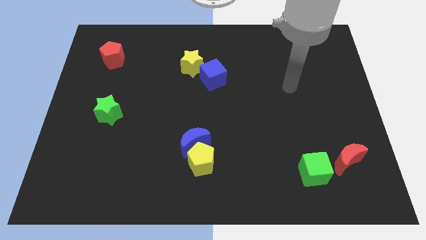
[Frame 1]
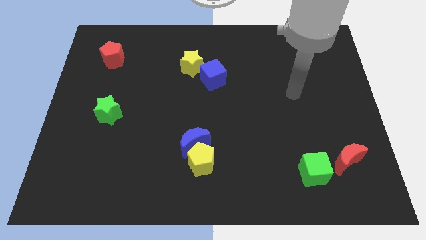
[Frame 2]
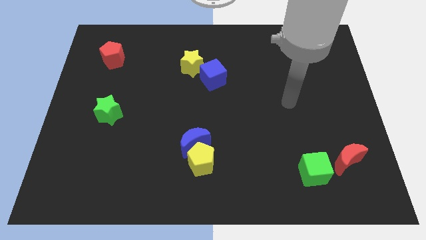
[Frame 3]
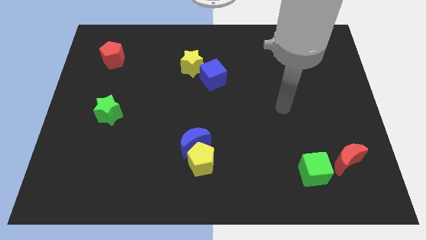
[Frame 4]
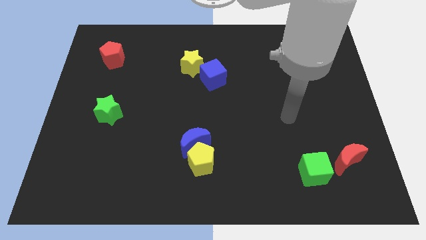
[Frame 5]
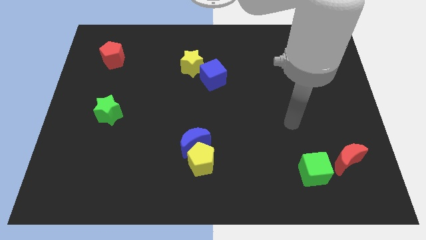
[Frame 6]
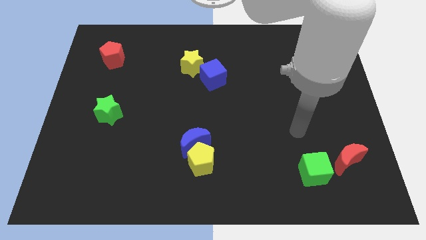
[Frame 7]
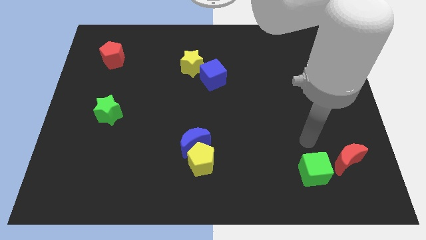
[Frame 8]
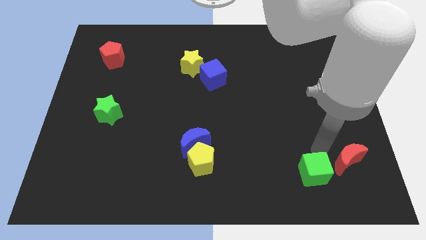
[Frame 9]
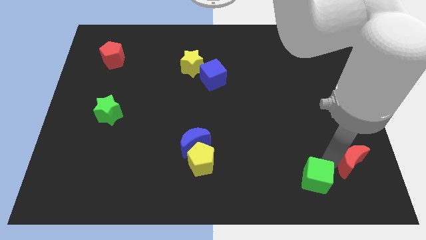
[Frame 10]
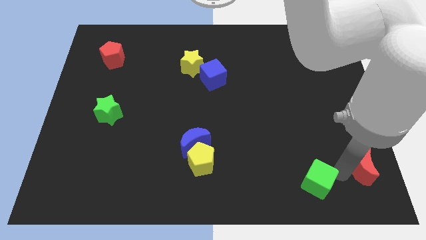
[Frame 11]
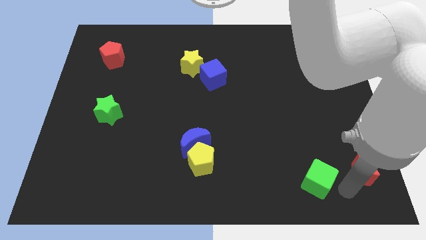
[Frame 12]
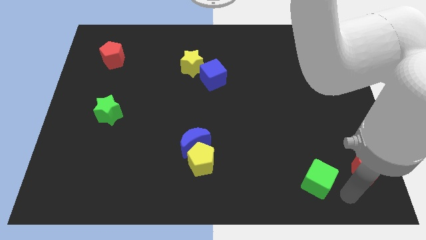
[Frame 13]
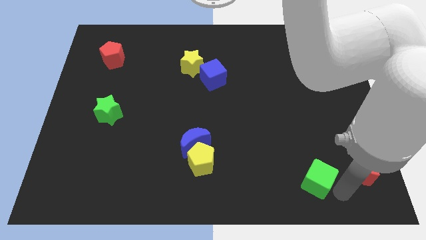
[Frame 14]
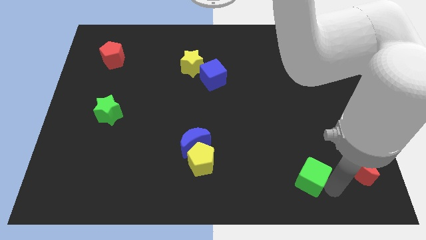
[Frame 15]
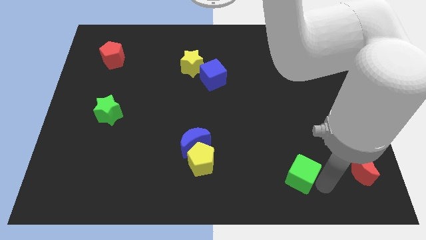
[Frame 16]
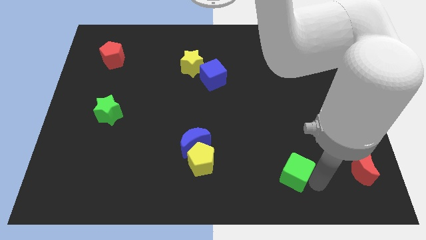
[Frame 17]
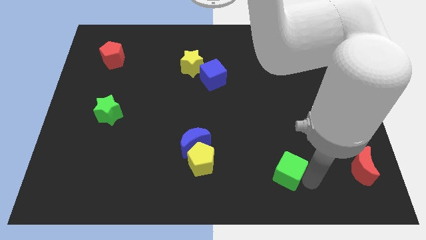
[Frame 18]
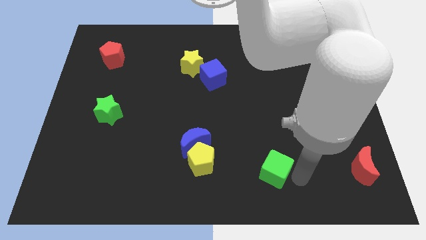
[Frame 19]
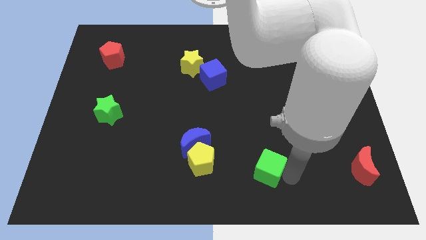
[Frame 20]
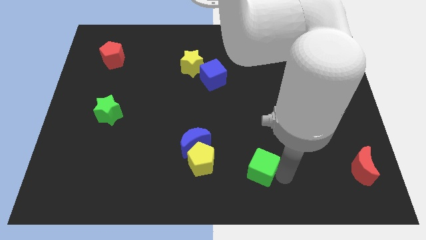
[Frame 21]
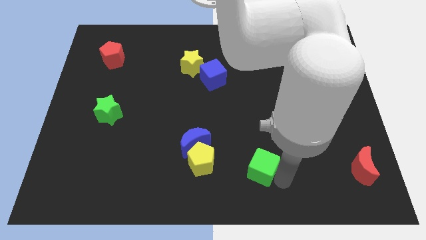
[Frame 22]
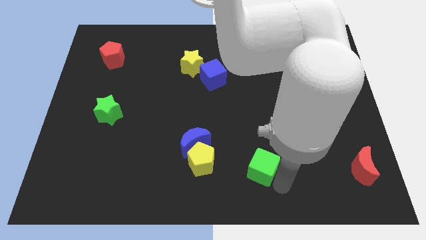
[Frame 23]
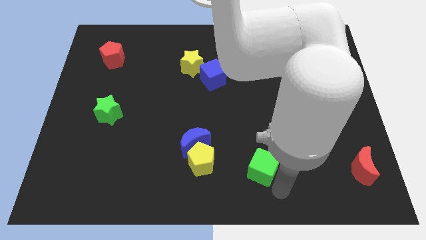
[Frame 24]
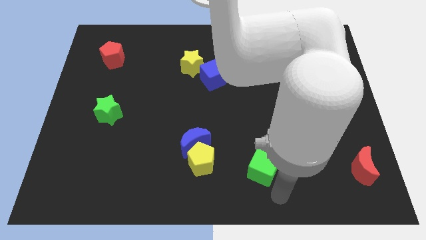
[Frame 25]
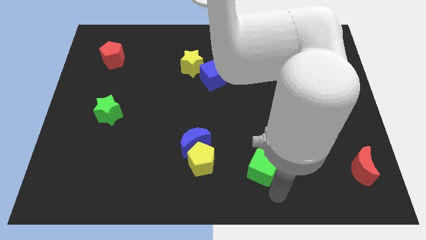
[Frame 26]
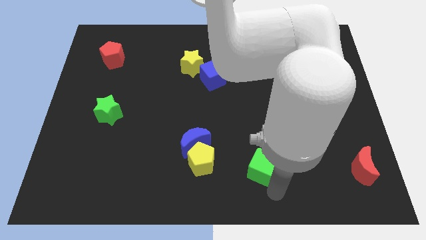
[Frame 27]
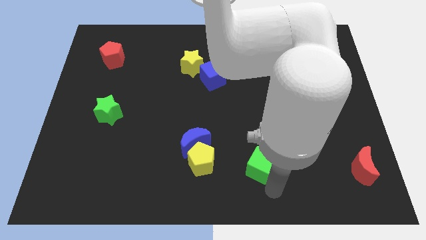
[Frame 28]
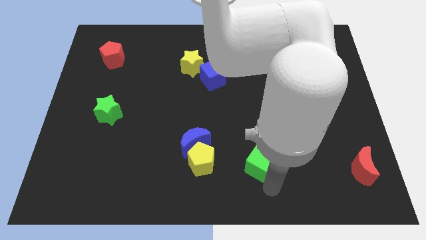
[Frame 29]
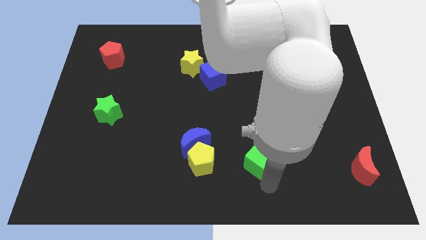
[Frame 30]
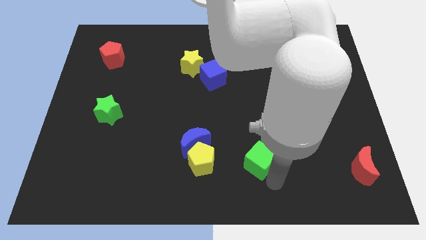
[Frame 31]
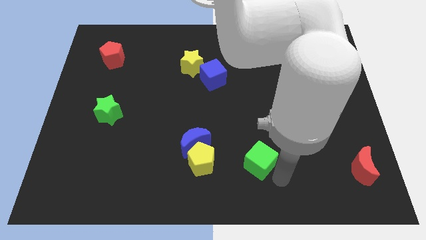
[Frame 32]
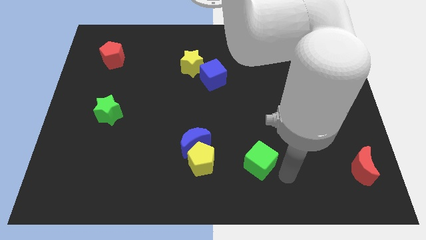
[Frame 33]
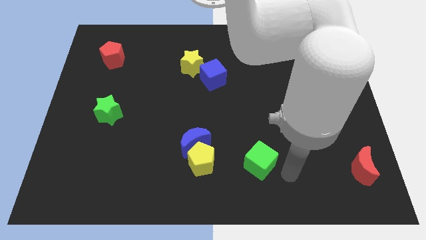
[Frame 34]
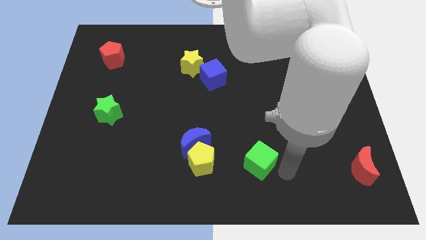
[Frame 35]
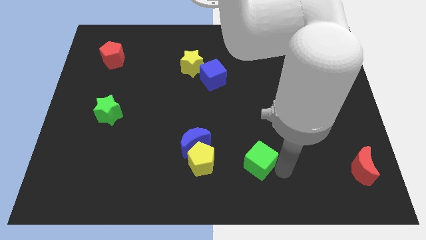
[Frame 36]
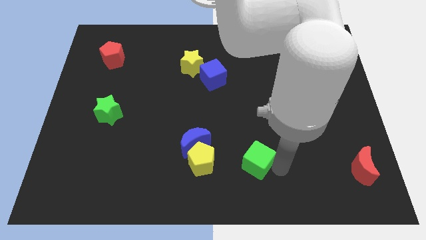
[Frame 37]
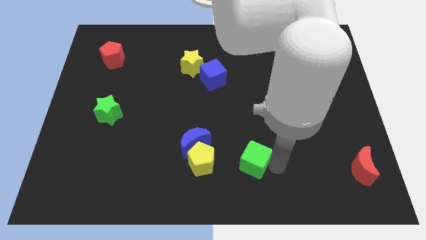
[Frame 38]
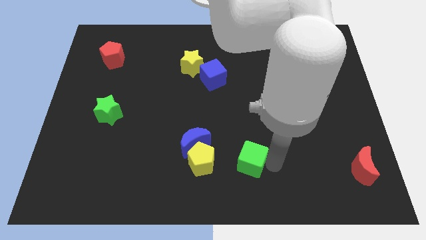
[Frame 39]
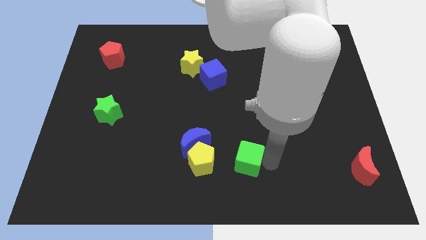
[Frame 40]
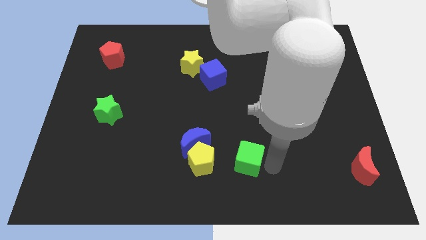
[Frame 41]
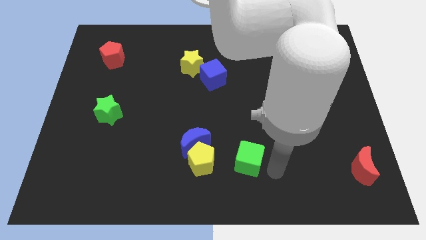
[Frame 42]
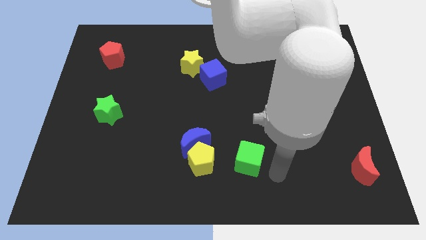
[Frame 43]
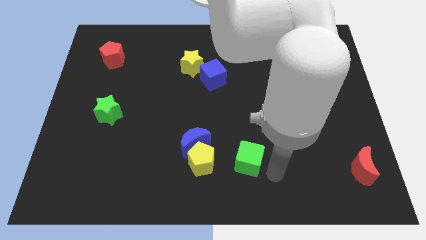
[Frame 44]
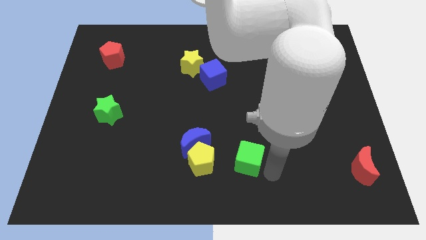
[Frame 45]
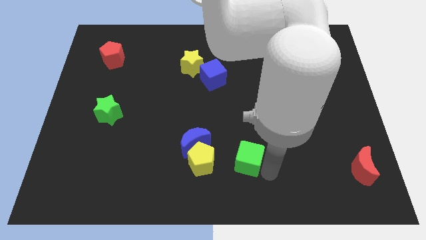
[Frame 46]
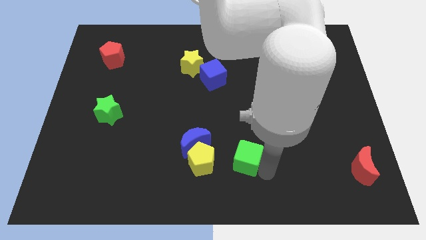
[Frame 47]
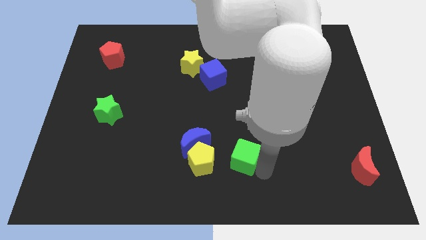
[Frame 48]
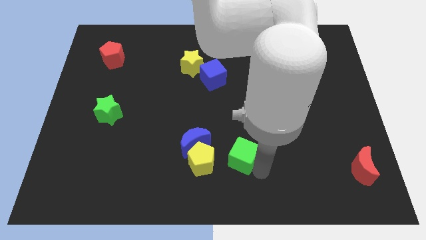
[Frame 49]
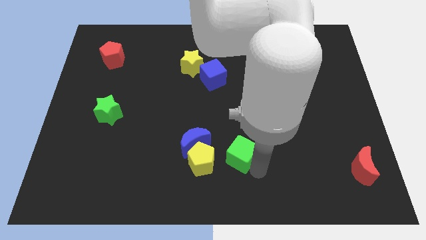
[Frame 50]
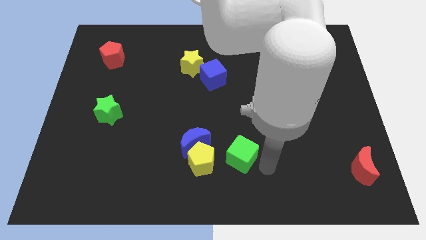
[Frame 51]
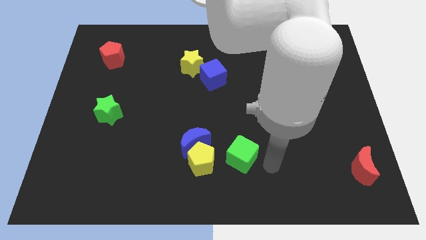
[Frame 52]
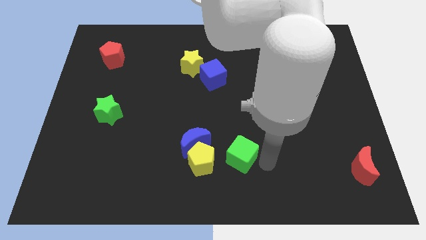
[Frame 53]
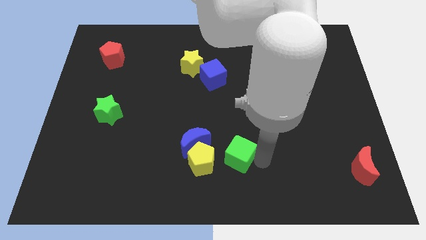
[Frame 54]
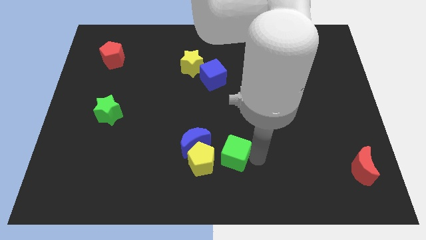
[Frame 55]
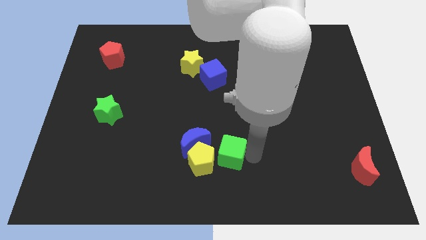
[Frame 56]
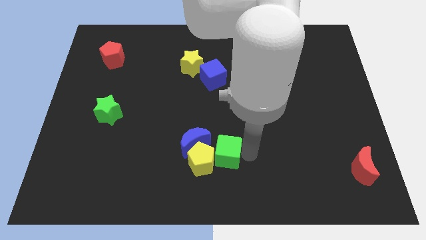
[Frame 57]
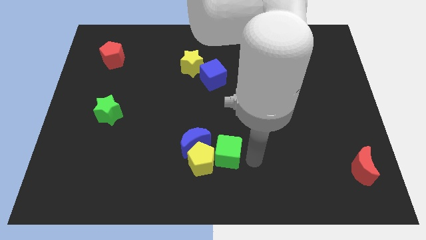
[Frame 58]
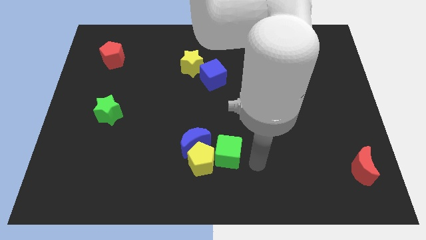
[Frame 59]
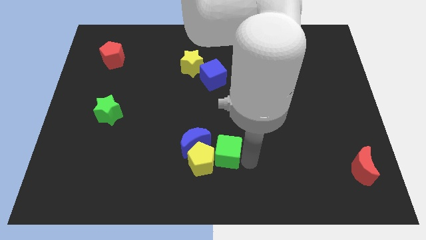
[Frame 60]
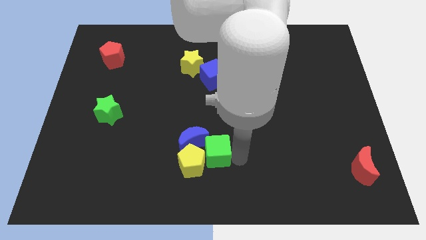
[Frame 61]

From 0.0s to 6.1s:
slide the green cube to the blue moon

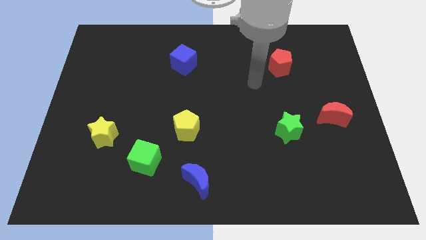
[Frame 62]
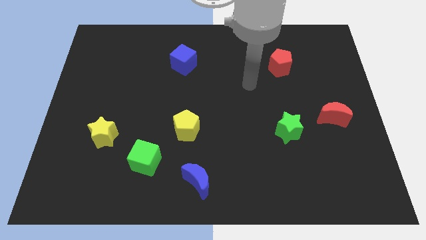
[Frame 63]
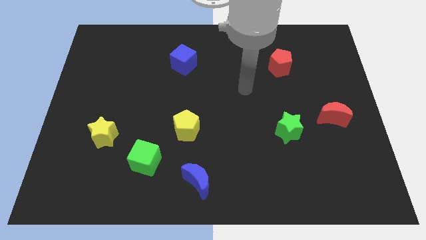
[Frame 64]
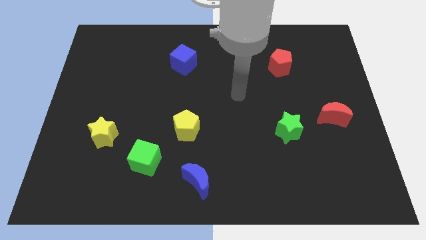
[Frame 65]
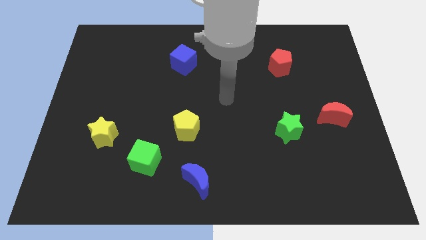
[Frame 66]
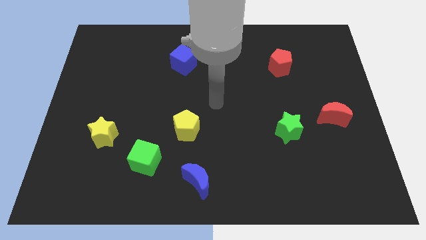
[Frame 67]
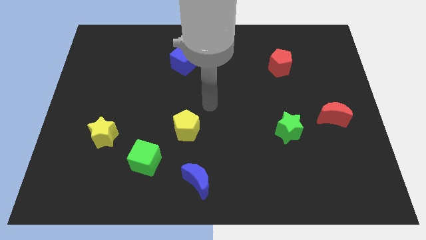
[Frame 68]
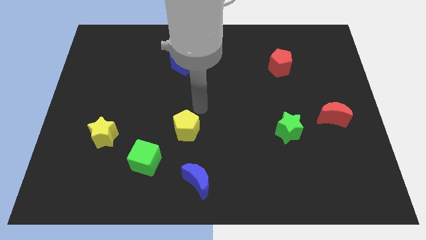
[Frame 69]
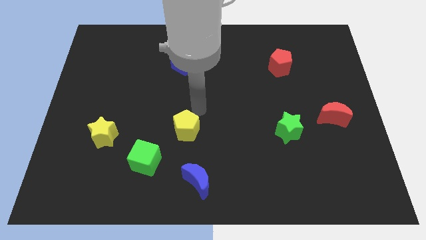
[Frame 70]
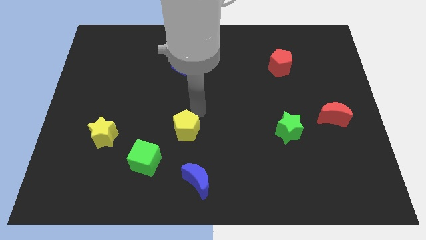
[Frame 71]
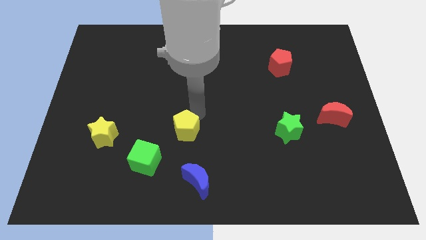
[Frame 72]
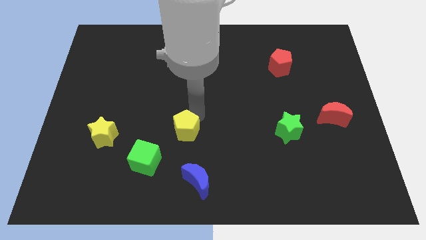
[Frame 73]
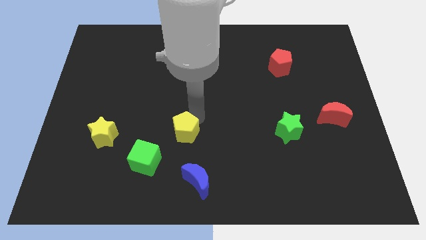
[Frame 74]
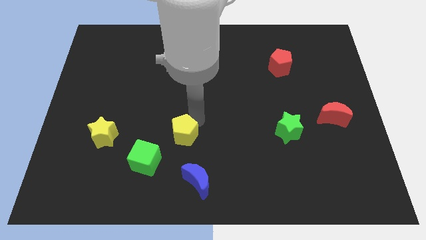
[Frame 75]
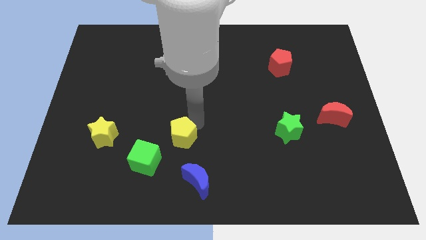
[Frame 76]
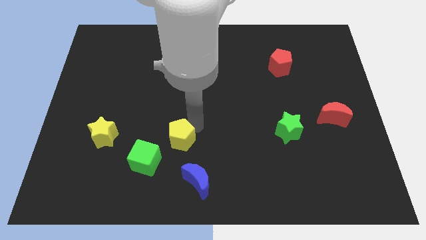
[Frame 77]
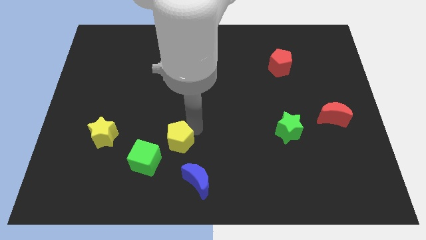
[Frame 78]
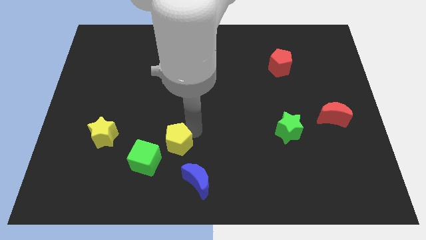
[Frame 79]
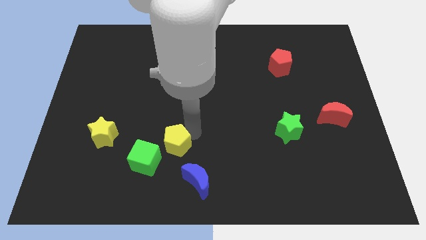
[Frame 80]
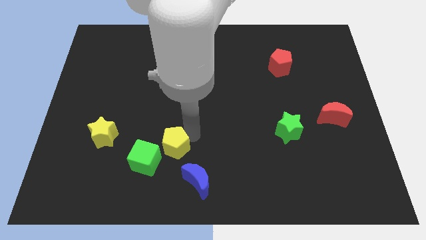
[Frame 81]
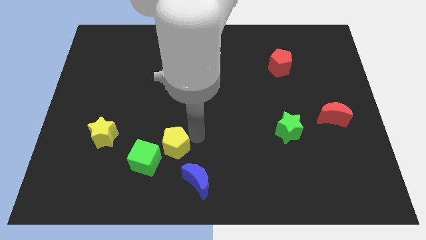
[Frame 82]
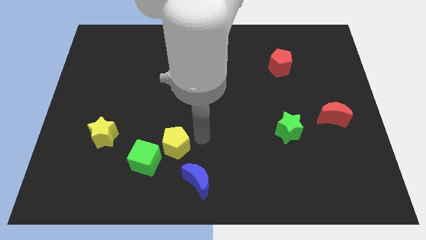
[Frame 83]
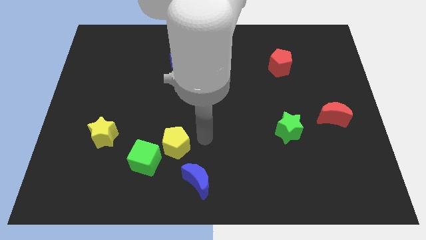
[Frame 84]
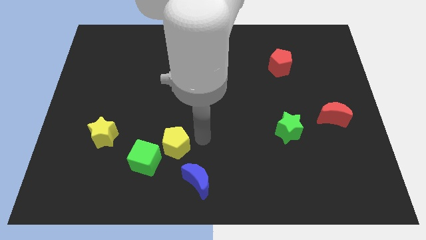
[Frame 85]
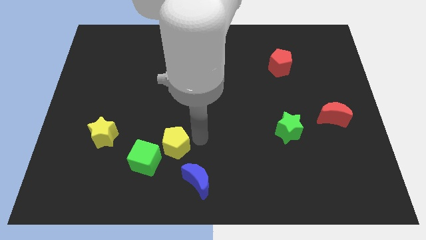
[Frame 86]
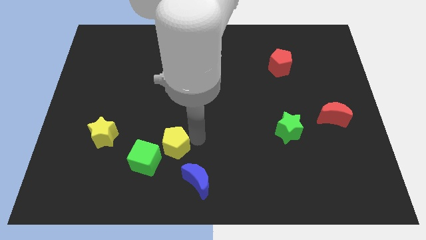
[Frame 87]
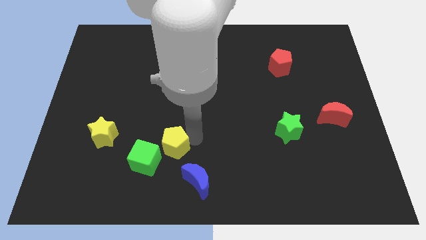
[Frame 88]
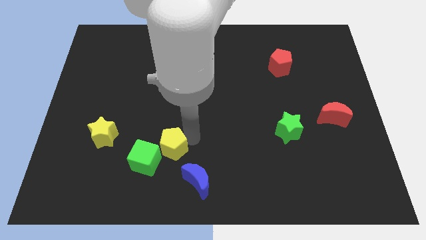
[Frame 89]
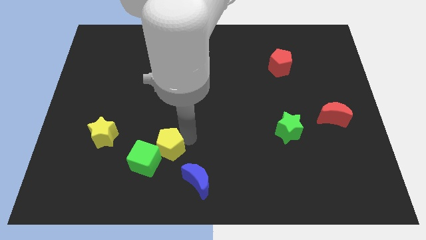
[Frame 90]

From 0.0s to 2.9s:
slide the yellow pentagon next to the green cube
